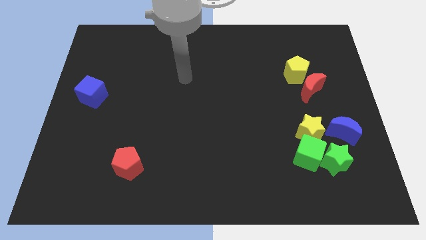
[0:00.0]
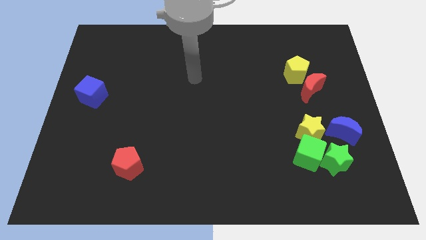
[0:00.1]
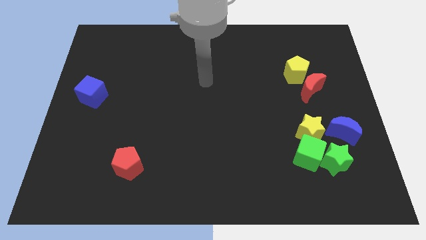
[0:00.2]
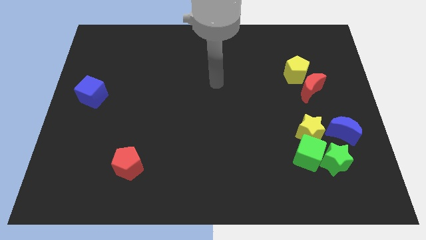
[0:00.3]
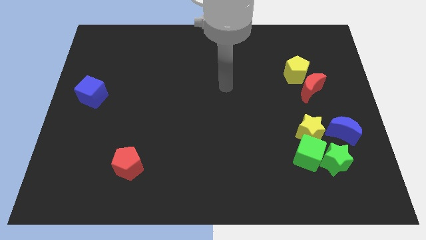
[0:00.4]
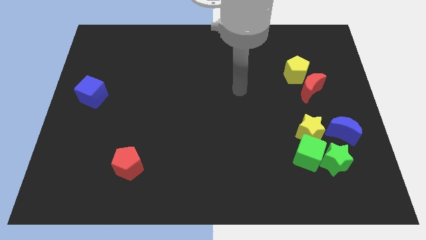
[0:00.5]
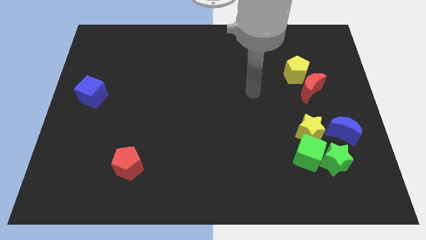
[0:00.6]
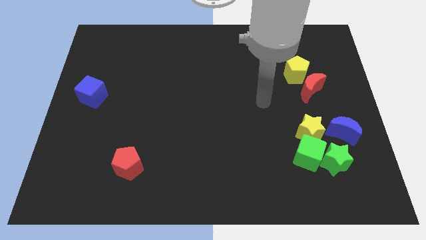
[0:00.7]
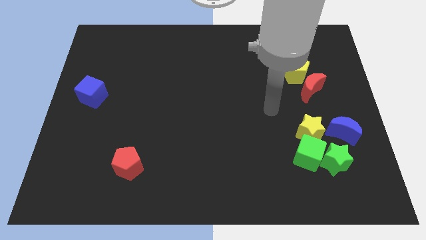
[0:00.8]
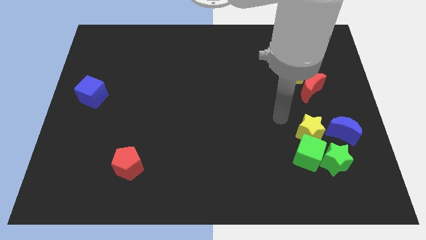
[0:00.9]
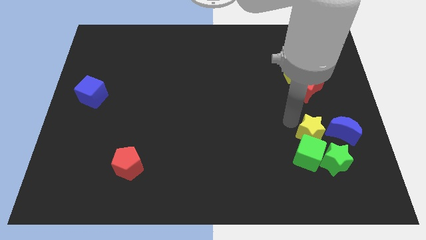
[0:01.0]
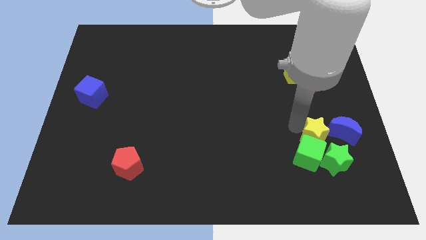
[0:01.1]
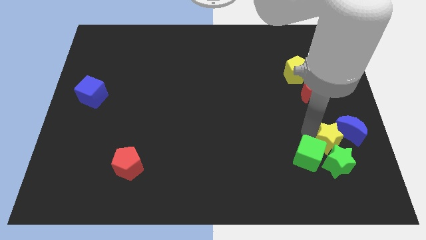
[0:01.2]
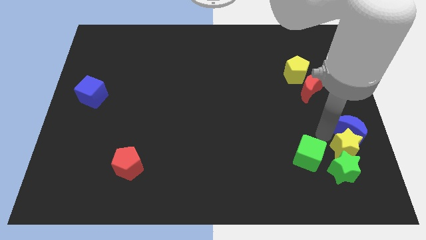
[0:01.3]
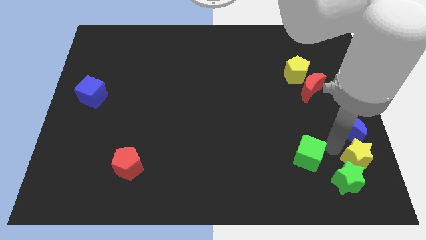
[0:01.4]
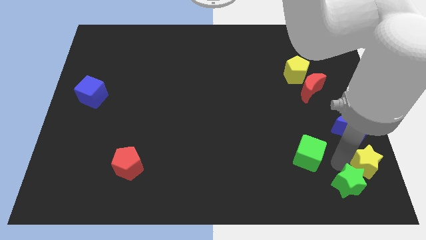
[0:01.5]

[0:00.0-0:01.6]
separate the green cube from the green star and yellow star

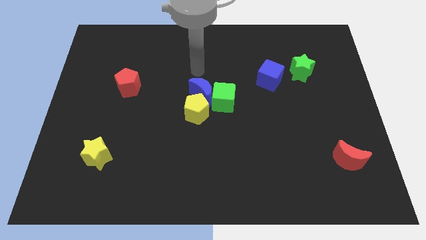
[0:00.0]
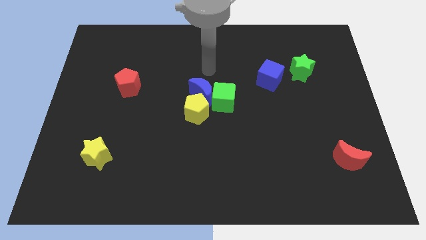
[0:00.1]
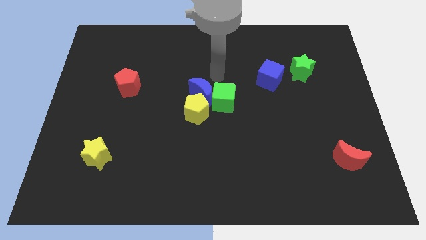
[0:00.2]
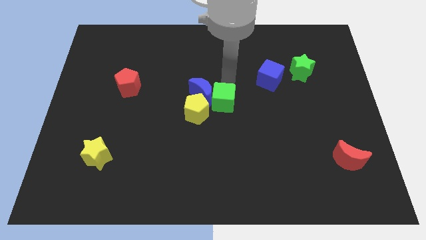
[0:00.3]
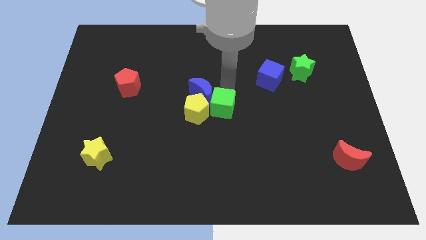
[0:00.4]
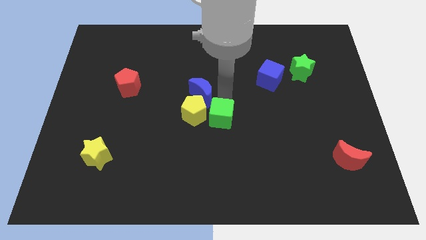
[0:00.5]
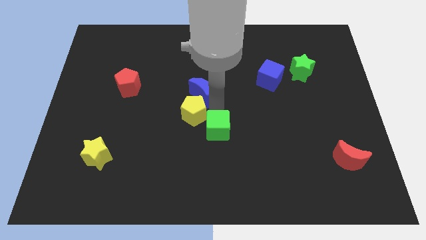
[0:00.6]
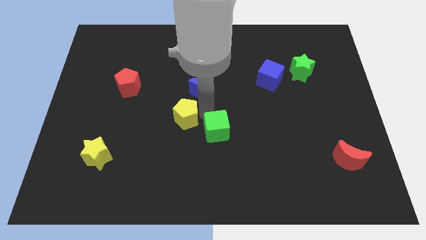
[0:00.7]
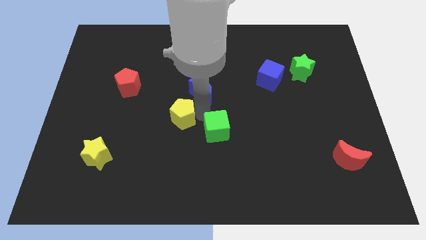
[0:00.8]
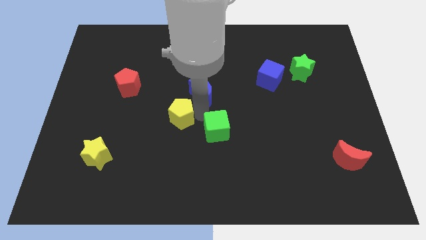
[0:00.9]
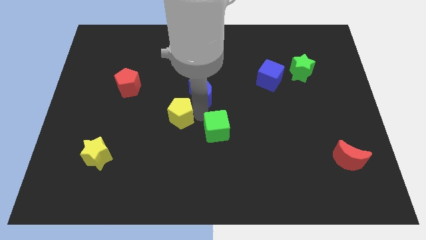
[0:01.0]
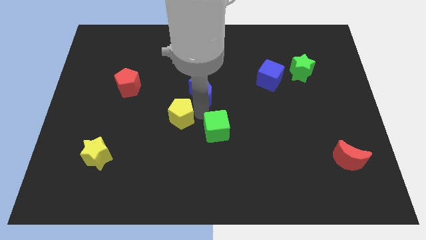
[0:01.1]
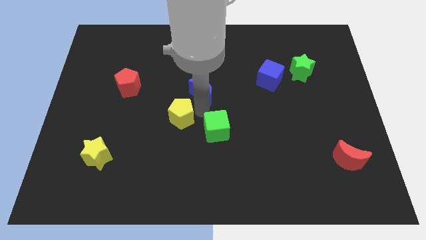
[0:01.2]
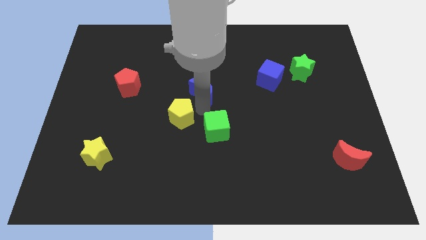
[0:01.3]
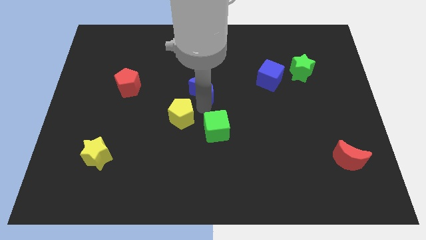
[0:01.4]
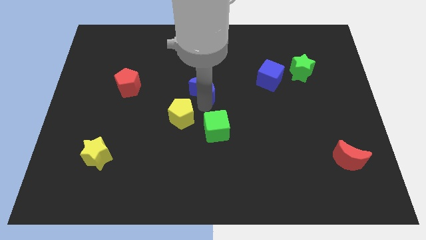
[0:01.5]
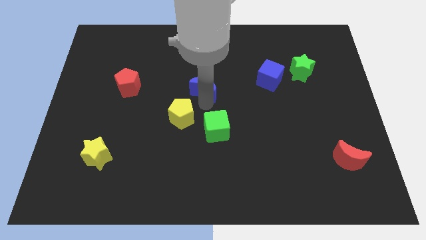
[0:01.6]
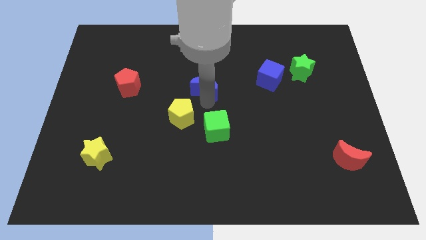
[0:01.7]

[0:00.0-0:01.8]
pull the blue moon apart from the green cube and yellow pentagon

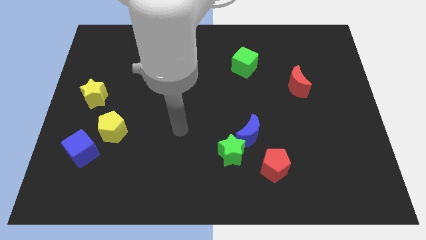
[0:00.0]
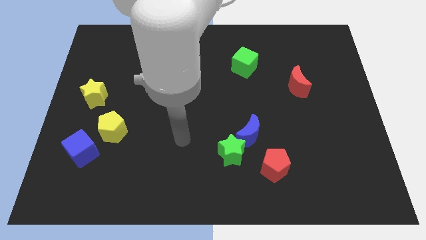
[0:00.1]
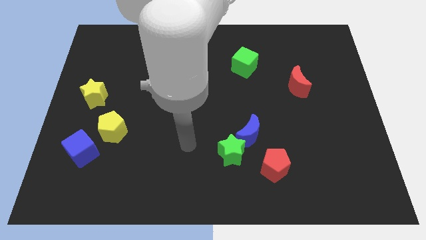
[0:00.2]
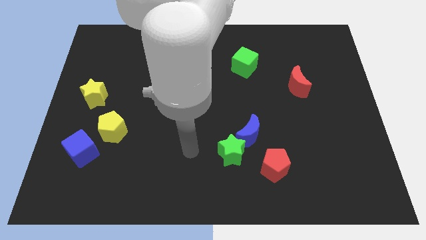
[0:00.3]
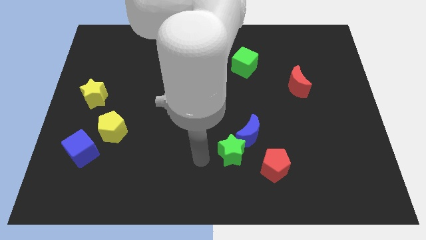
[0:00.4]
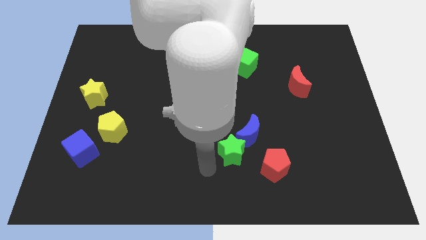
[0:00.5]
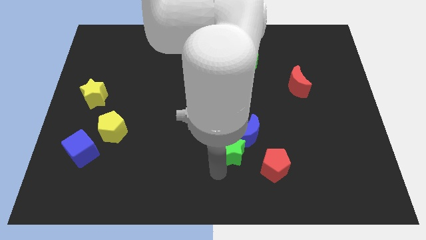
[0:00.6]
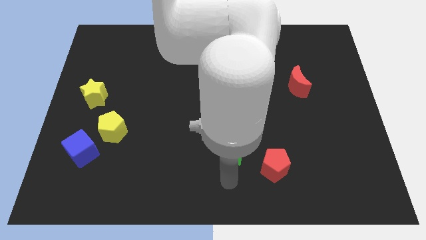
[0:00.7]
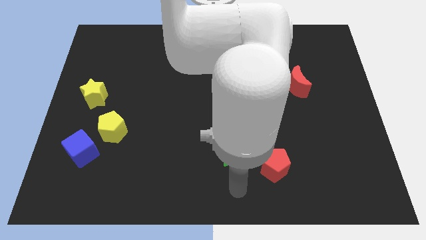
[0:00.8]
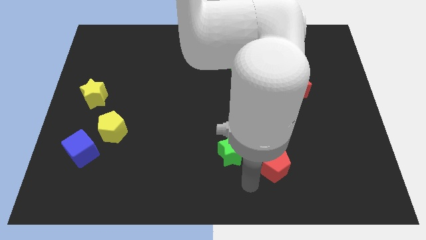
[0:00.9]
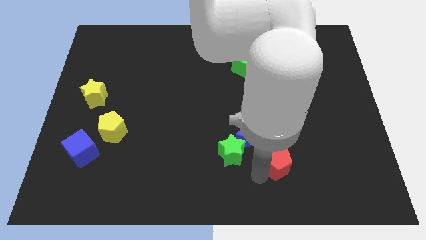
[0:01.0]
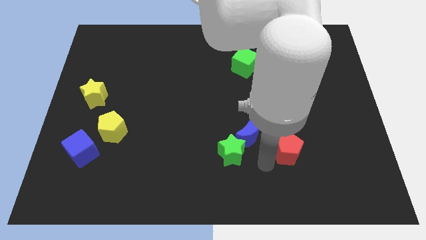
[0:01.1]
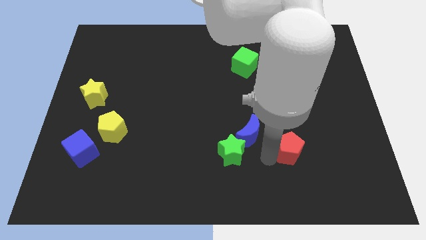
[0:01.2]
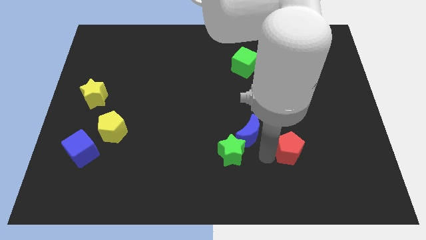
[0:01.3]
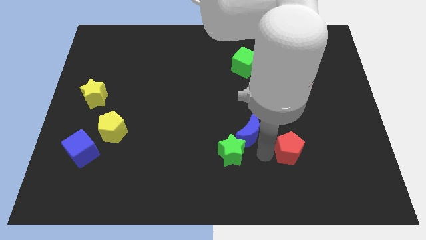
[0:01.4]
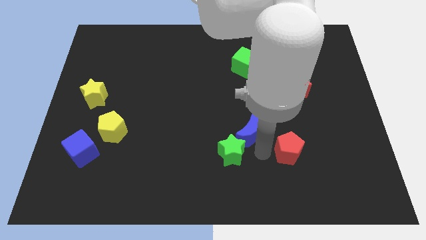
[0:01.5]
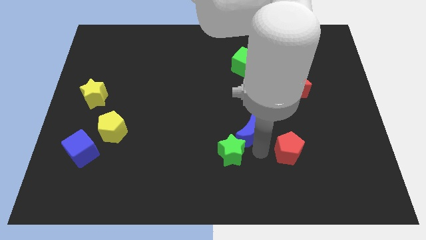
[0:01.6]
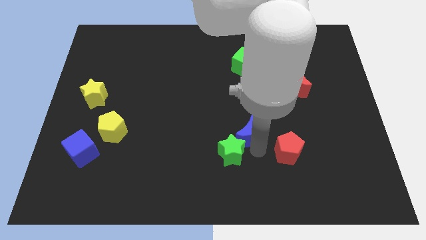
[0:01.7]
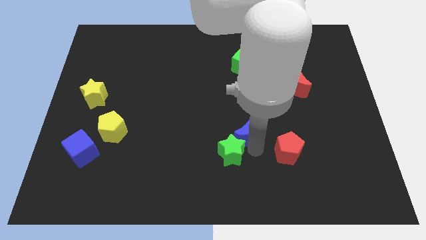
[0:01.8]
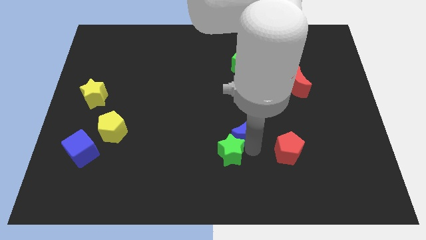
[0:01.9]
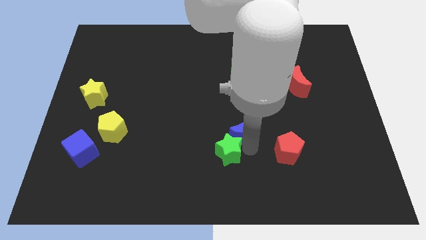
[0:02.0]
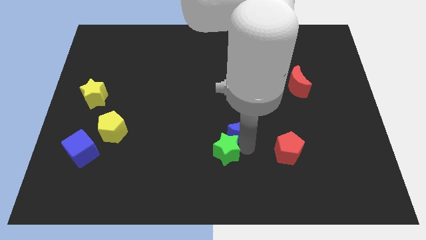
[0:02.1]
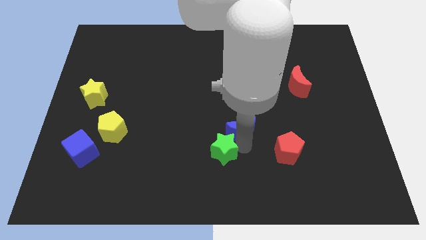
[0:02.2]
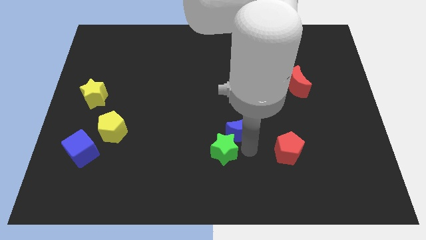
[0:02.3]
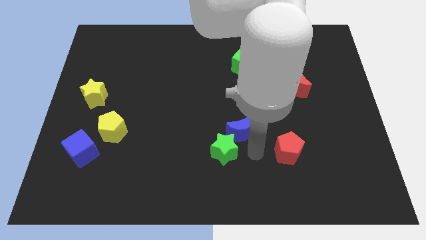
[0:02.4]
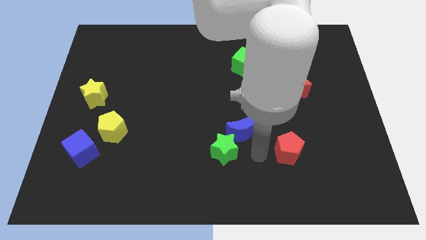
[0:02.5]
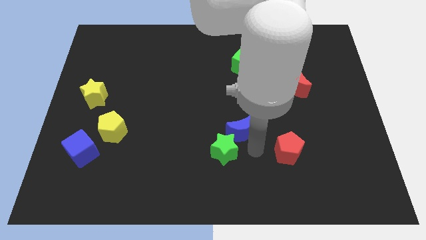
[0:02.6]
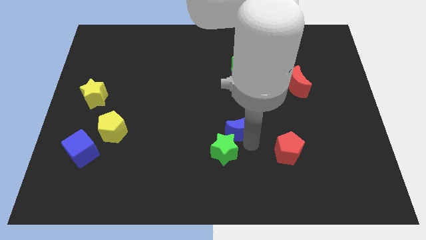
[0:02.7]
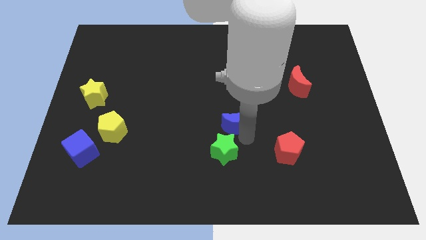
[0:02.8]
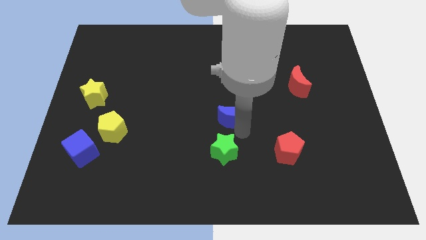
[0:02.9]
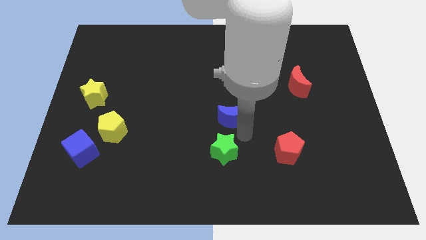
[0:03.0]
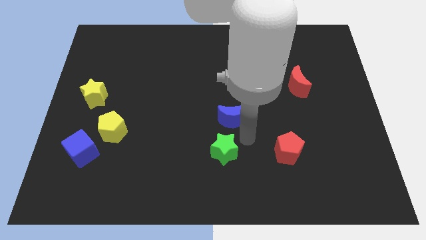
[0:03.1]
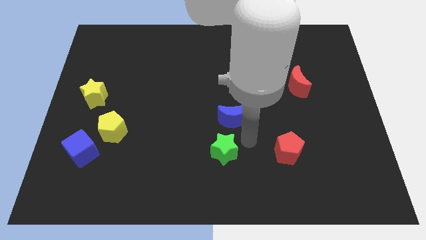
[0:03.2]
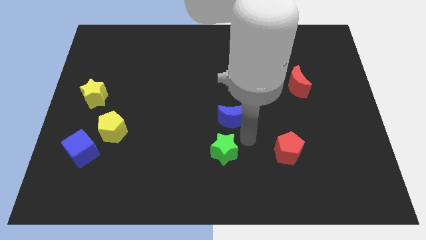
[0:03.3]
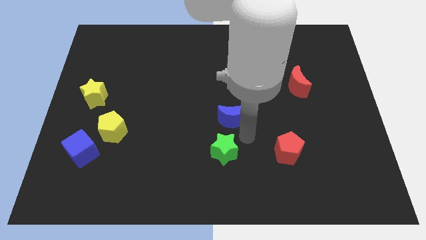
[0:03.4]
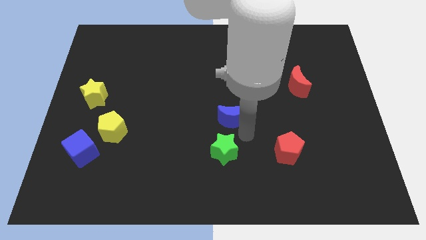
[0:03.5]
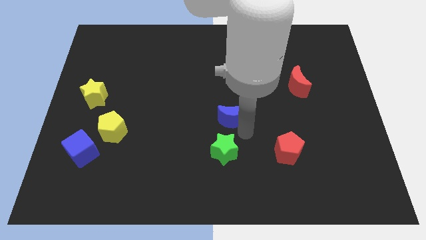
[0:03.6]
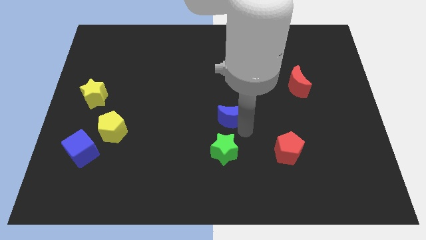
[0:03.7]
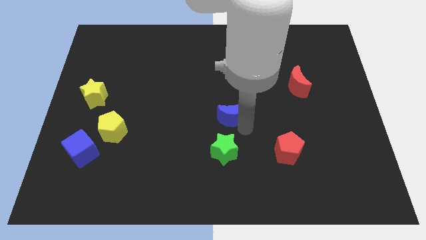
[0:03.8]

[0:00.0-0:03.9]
pull the blue moon apart from the green star and red pentagon

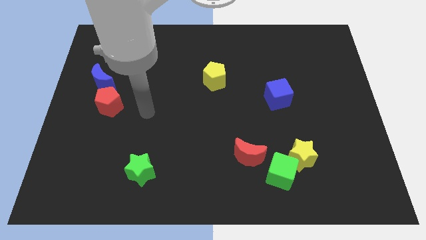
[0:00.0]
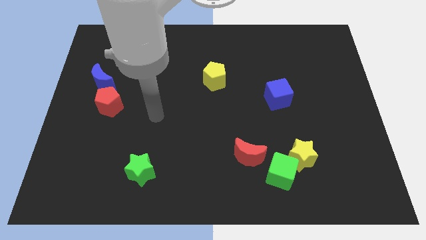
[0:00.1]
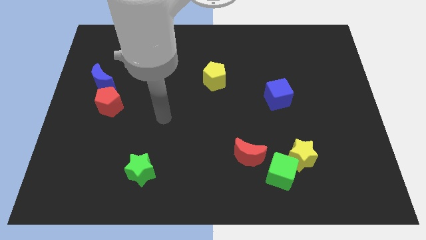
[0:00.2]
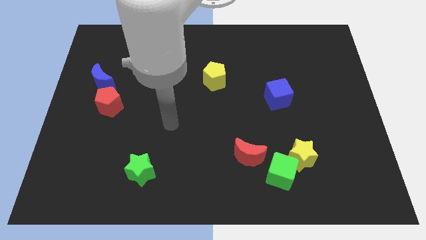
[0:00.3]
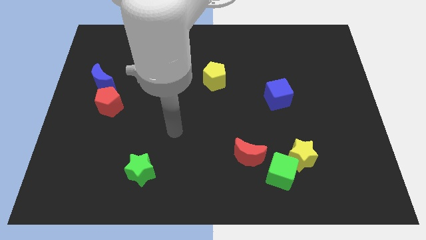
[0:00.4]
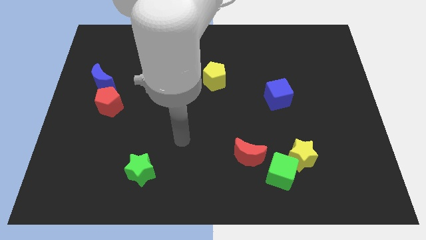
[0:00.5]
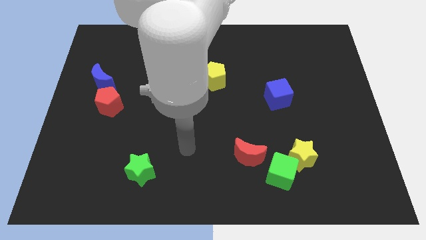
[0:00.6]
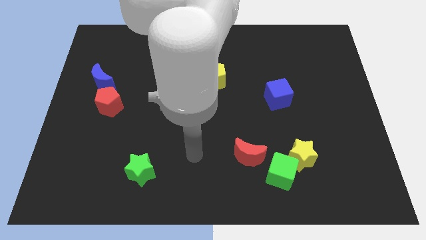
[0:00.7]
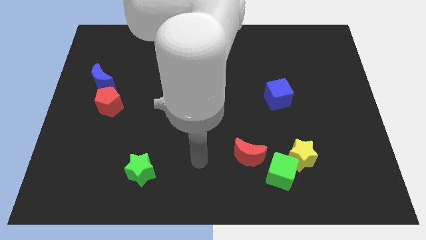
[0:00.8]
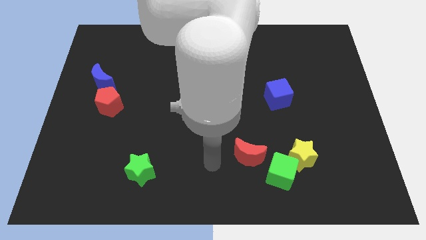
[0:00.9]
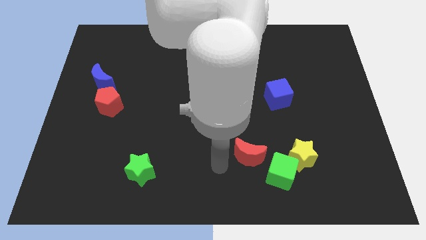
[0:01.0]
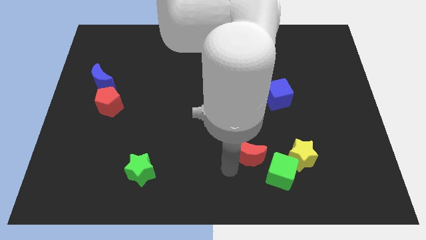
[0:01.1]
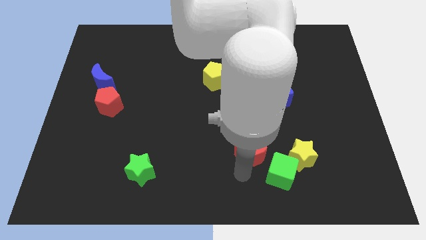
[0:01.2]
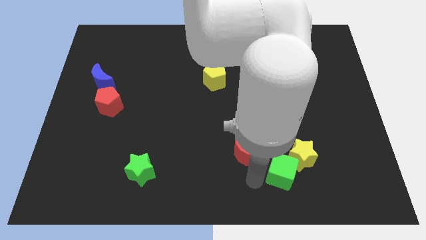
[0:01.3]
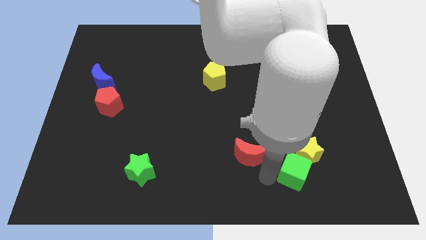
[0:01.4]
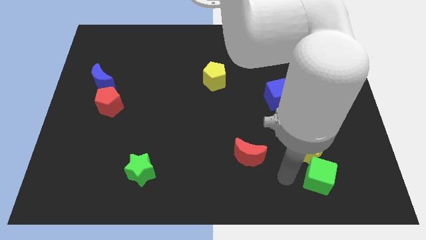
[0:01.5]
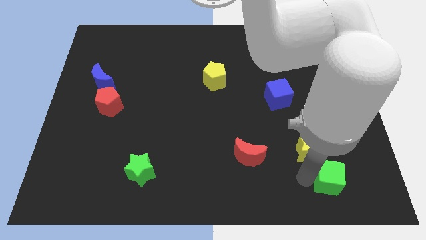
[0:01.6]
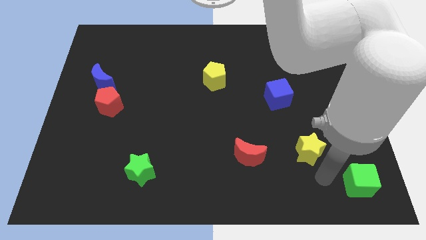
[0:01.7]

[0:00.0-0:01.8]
pull the yellow star apart from the green cube

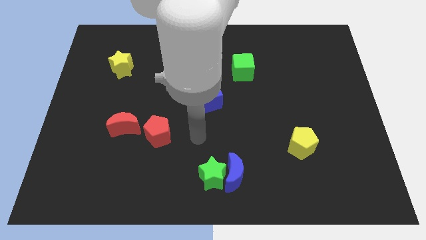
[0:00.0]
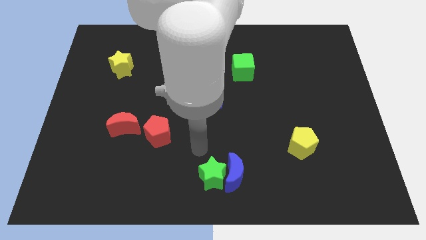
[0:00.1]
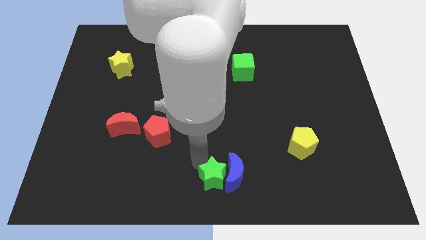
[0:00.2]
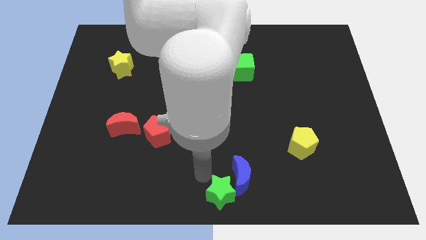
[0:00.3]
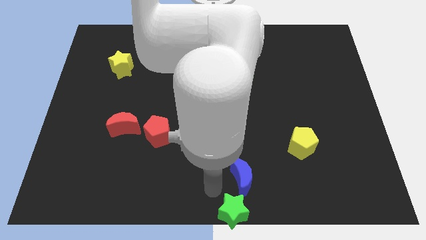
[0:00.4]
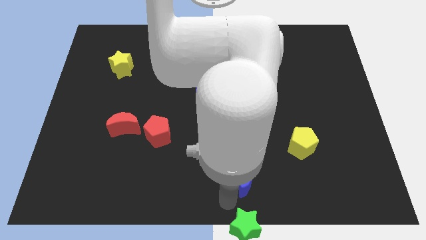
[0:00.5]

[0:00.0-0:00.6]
separate the blue moon from the green star
